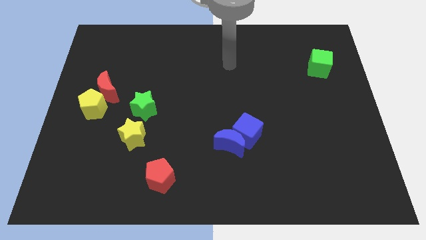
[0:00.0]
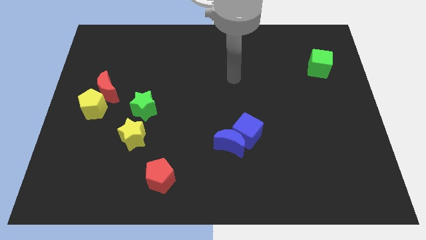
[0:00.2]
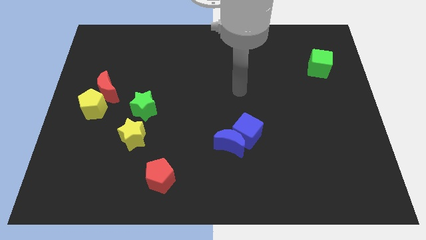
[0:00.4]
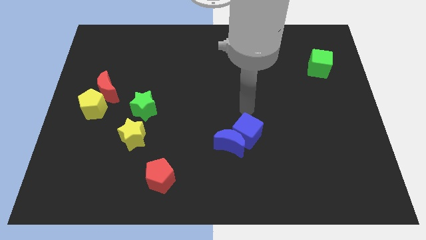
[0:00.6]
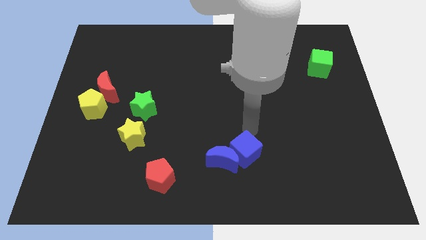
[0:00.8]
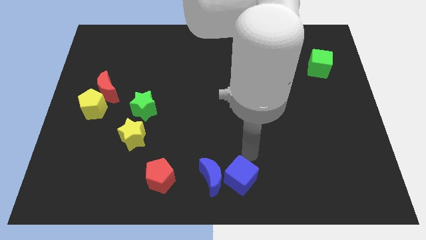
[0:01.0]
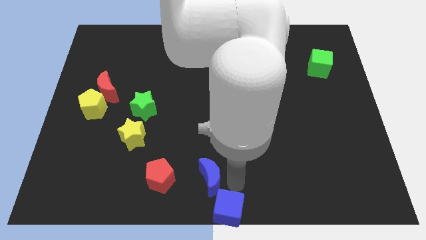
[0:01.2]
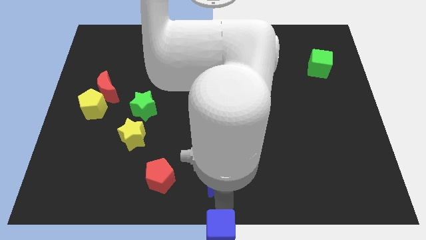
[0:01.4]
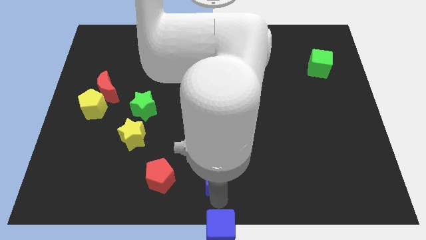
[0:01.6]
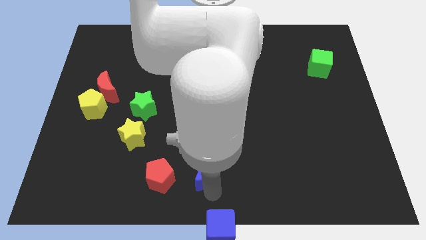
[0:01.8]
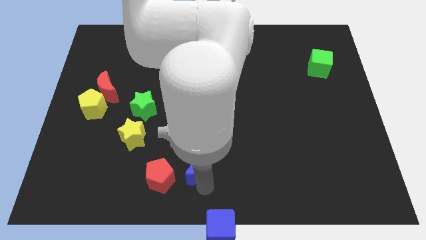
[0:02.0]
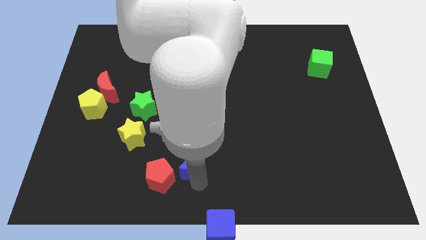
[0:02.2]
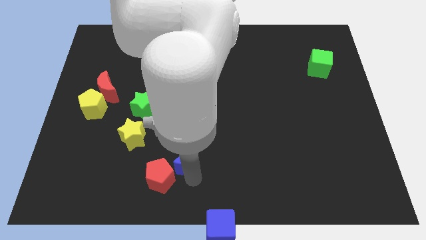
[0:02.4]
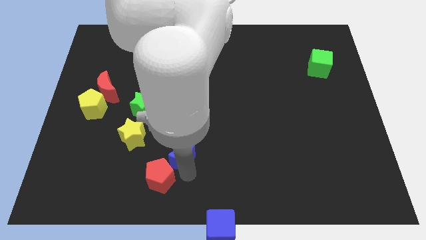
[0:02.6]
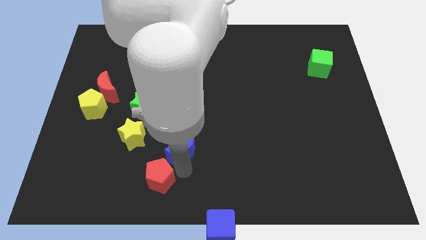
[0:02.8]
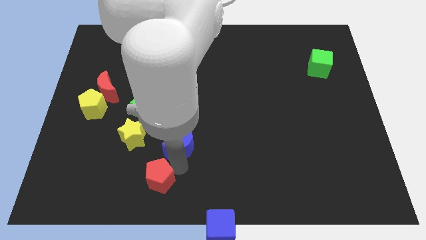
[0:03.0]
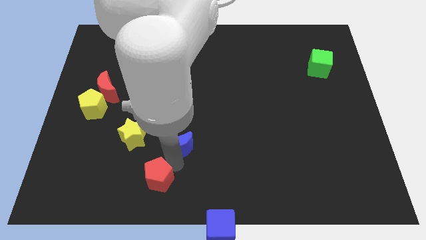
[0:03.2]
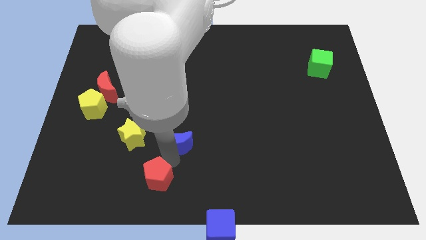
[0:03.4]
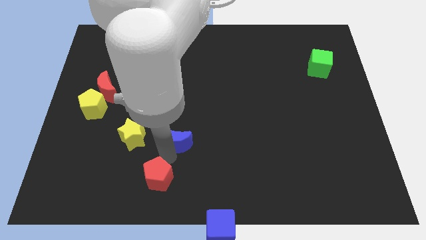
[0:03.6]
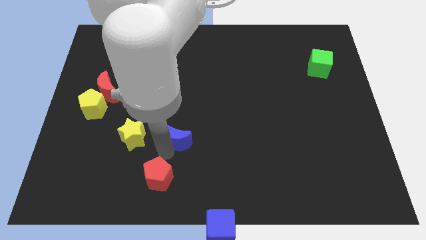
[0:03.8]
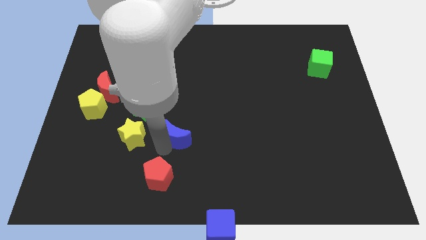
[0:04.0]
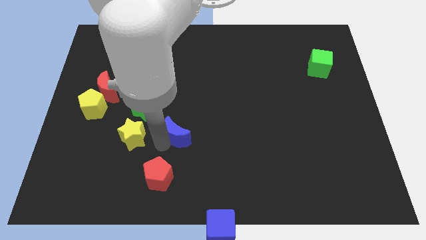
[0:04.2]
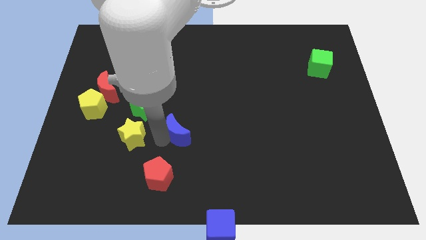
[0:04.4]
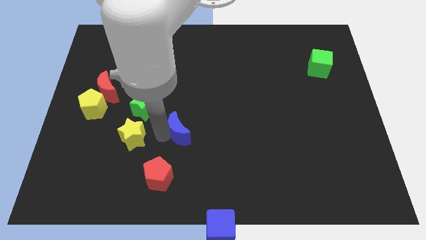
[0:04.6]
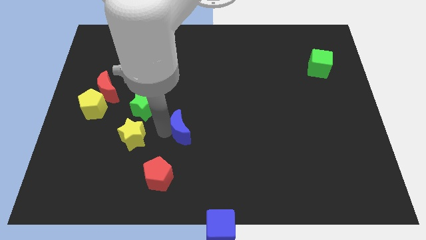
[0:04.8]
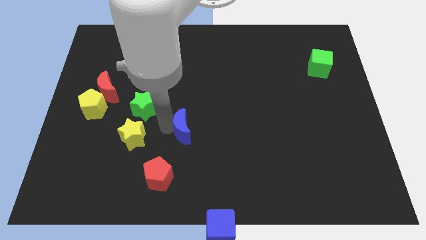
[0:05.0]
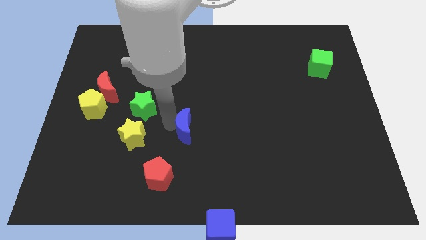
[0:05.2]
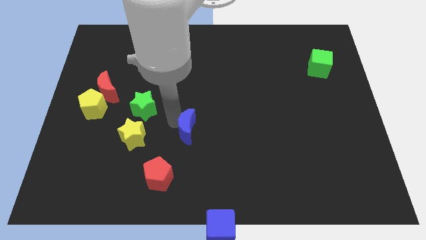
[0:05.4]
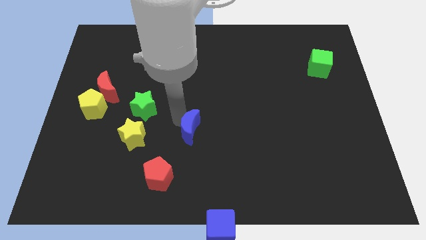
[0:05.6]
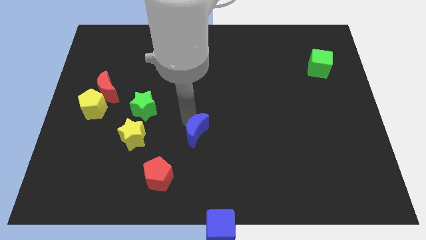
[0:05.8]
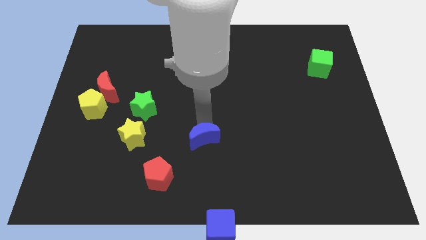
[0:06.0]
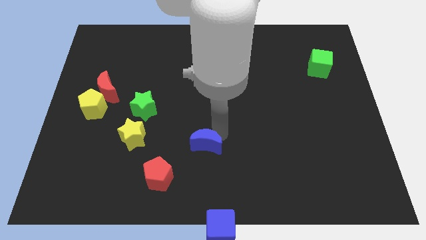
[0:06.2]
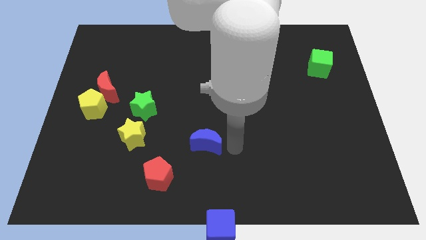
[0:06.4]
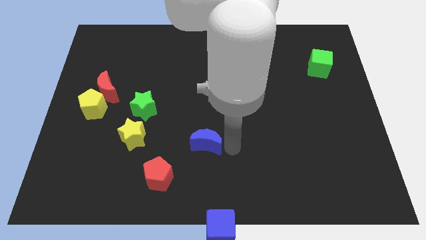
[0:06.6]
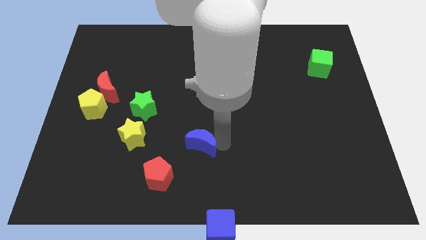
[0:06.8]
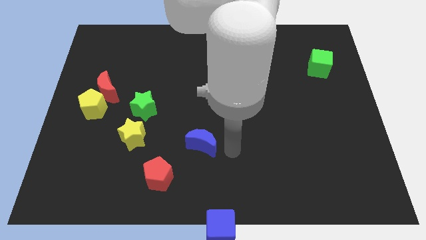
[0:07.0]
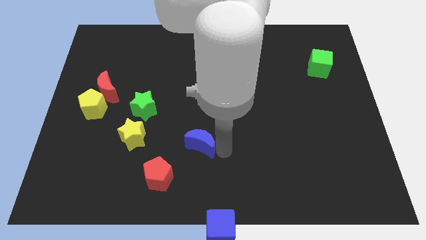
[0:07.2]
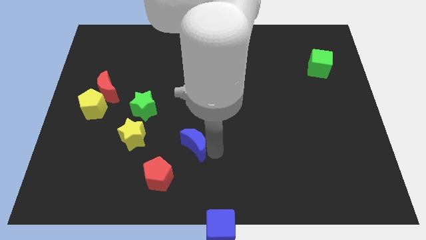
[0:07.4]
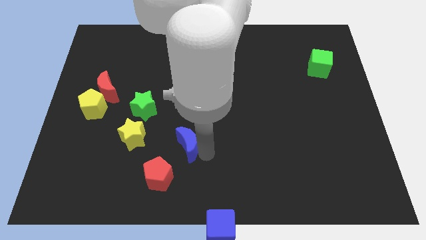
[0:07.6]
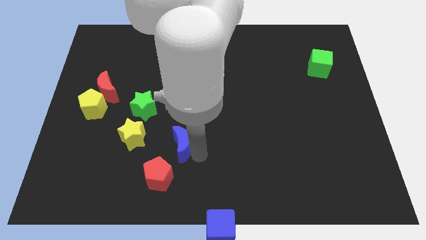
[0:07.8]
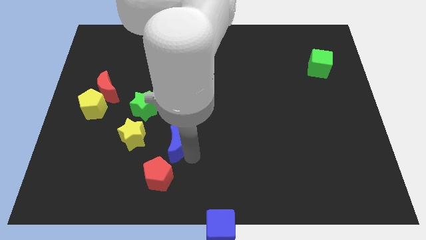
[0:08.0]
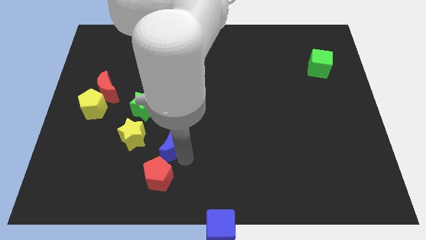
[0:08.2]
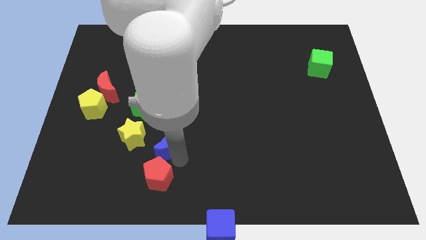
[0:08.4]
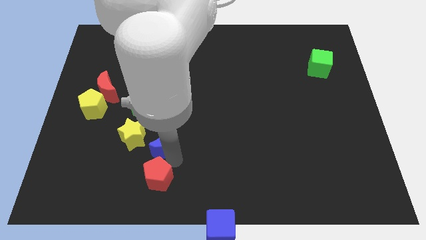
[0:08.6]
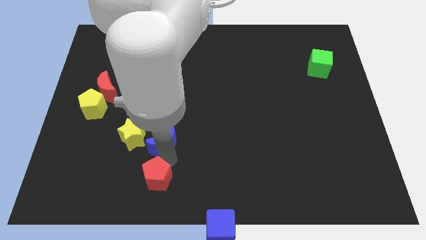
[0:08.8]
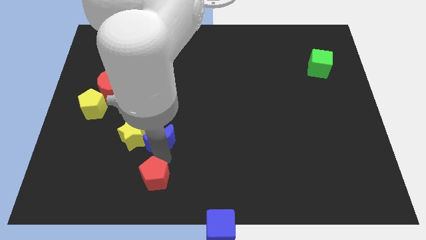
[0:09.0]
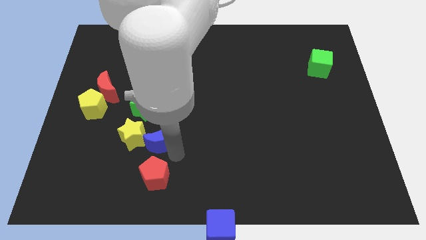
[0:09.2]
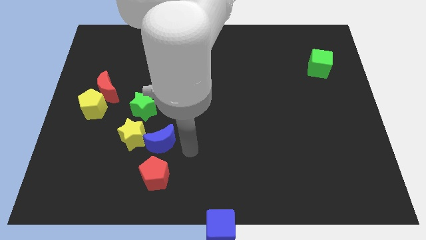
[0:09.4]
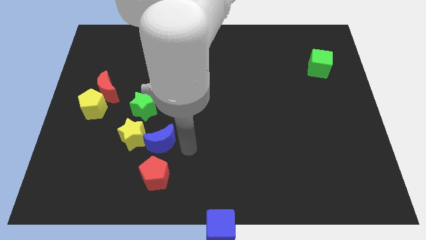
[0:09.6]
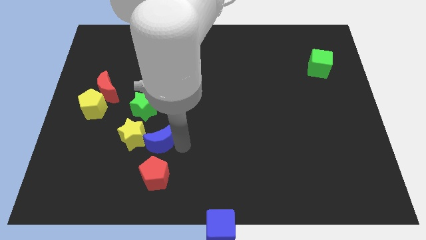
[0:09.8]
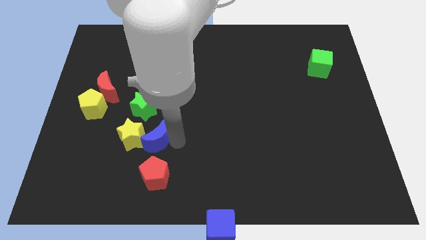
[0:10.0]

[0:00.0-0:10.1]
push the blue moon towards the yellow star

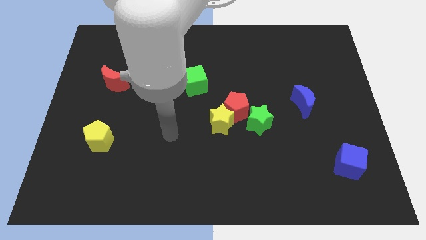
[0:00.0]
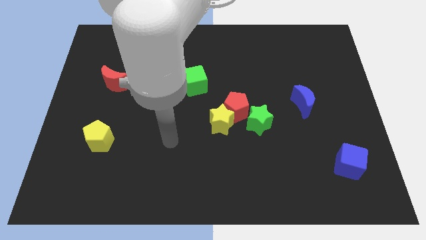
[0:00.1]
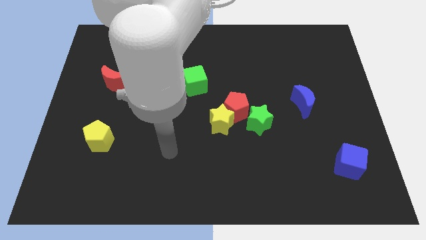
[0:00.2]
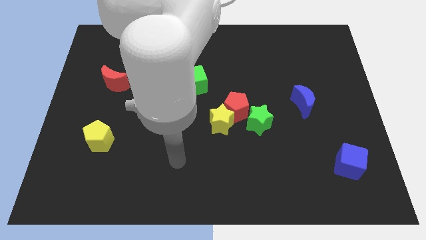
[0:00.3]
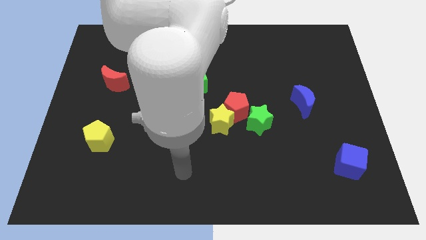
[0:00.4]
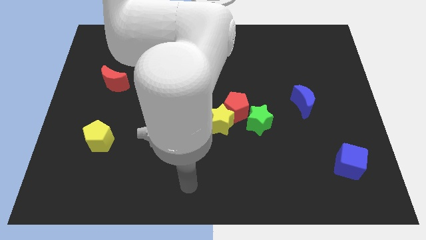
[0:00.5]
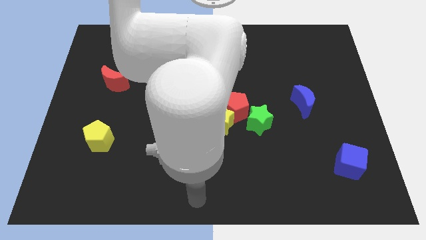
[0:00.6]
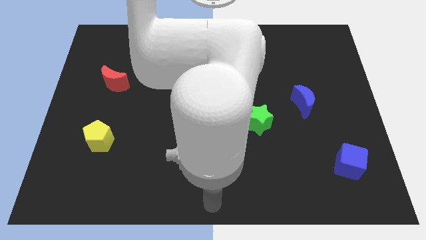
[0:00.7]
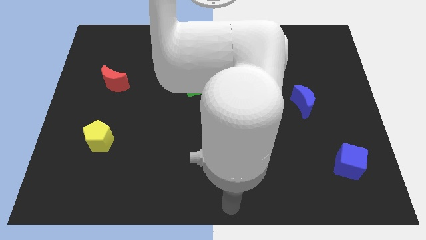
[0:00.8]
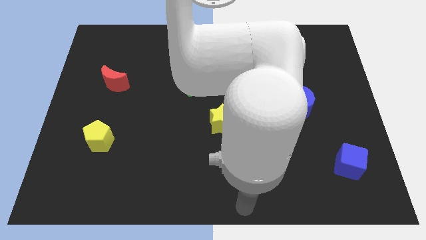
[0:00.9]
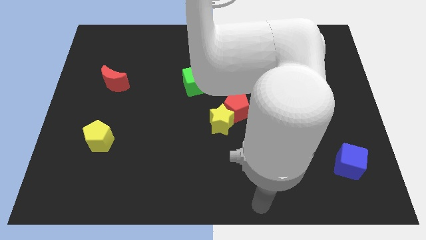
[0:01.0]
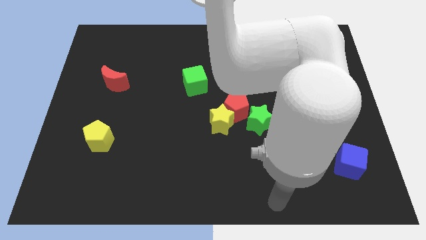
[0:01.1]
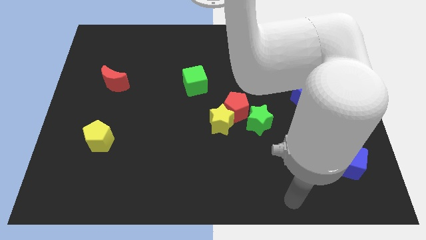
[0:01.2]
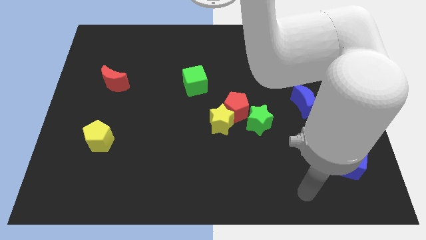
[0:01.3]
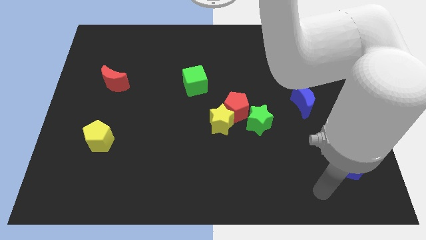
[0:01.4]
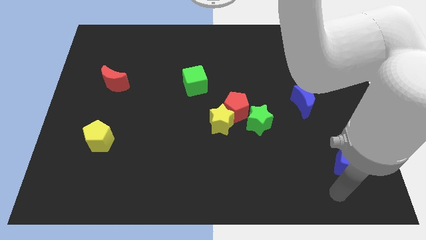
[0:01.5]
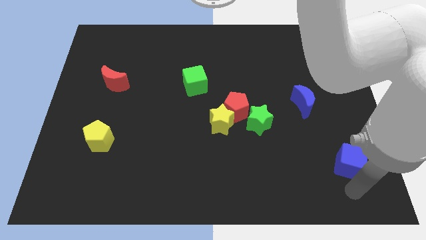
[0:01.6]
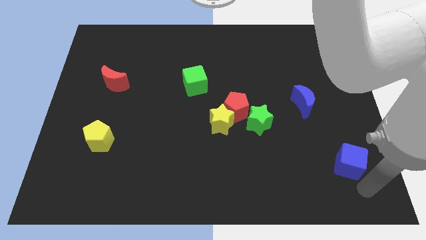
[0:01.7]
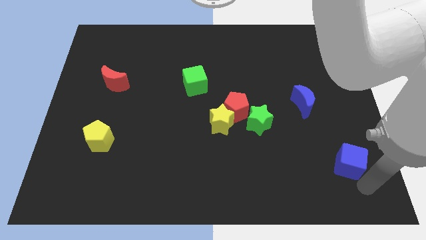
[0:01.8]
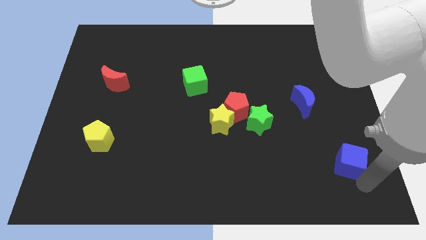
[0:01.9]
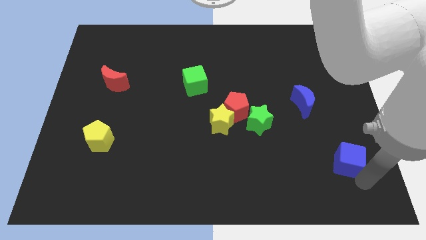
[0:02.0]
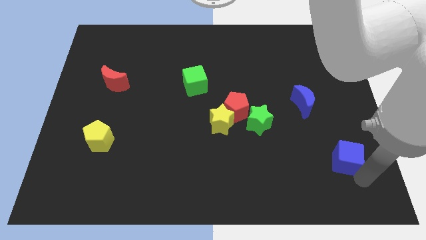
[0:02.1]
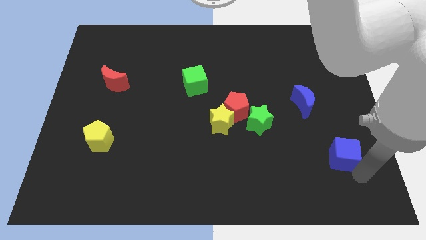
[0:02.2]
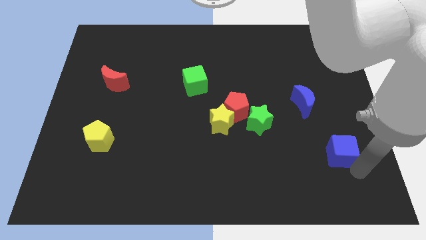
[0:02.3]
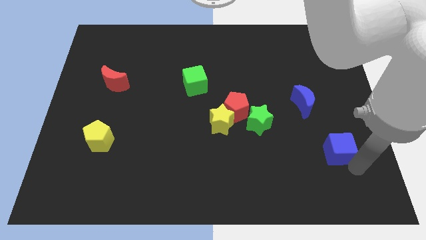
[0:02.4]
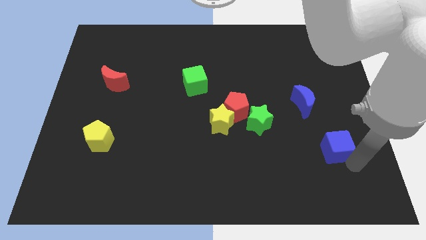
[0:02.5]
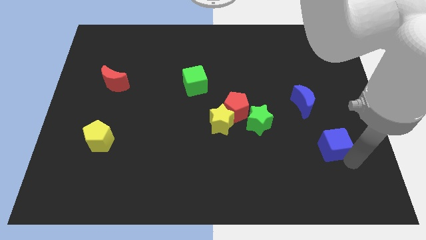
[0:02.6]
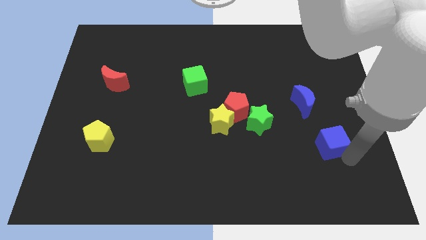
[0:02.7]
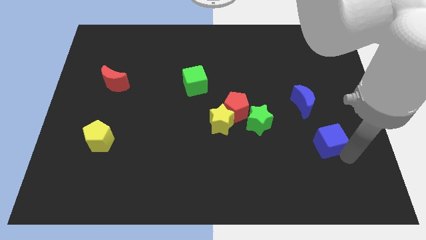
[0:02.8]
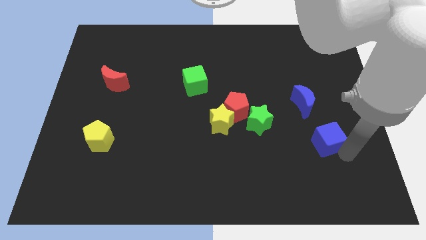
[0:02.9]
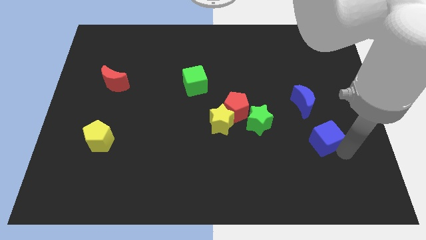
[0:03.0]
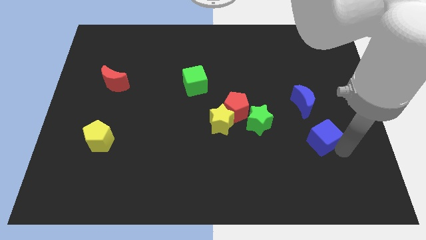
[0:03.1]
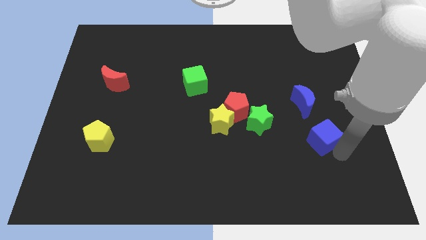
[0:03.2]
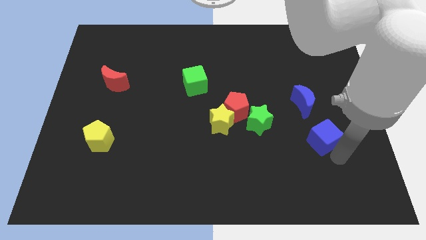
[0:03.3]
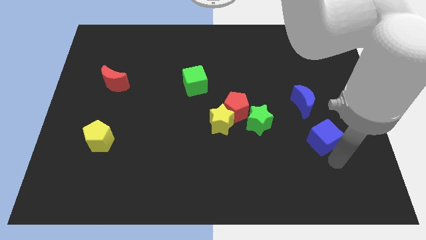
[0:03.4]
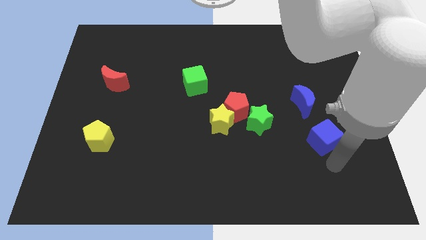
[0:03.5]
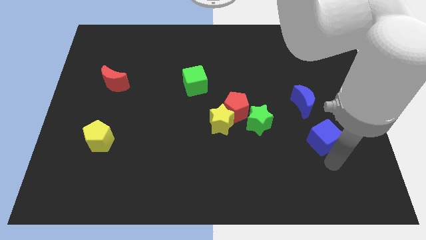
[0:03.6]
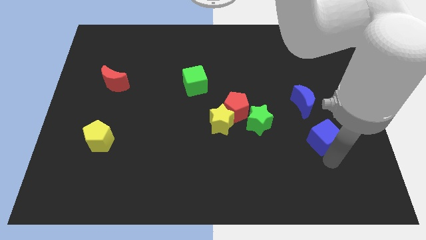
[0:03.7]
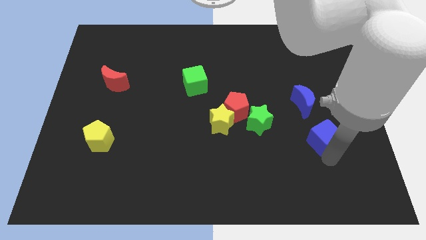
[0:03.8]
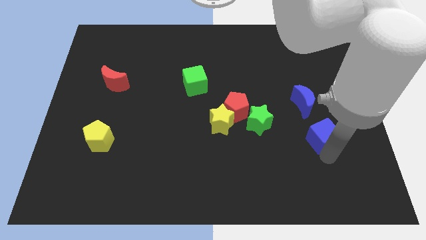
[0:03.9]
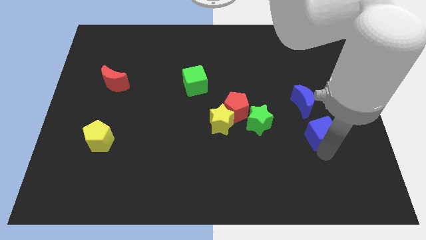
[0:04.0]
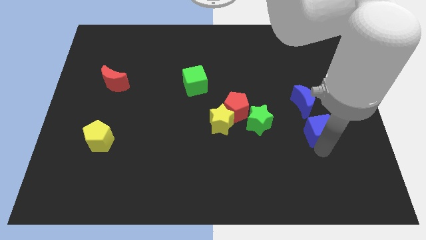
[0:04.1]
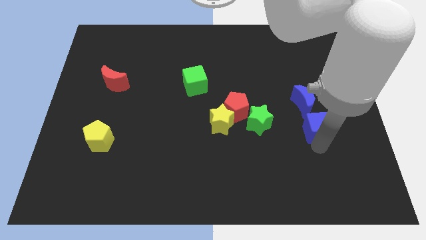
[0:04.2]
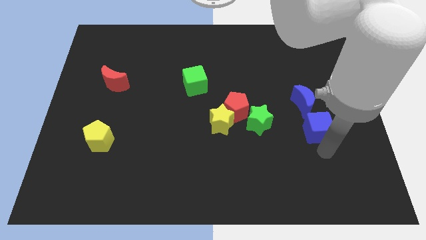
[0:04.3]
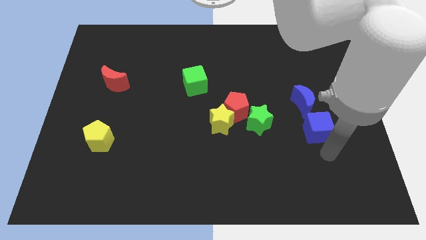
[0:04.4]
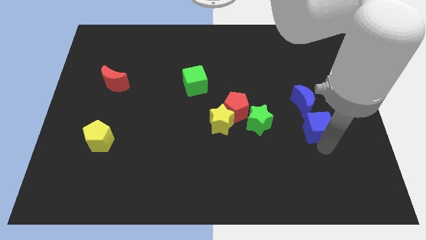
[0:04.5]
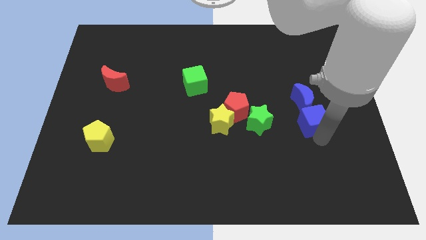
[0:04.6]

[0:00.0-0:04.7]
push the blue cube towards the blue moon
